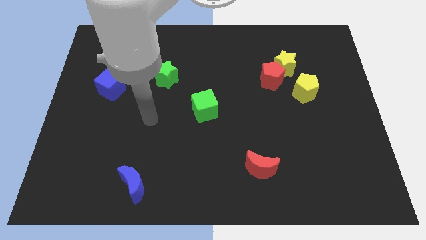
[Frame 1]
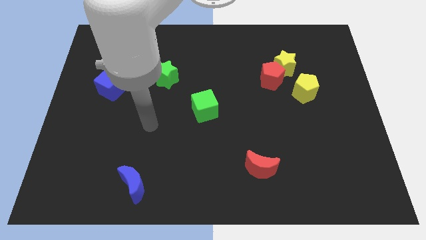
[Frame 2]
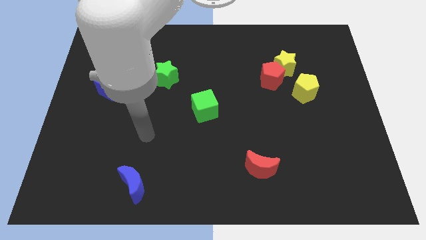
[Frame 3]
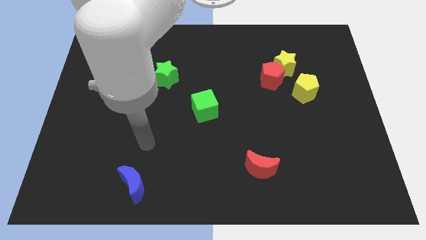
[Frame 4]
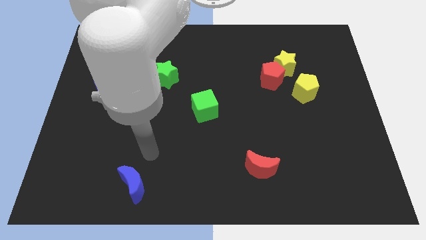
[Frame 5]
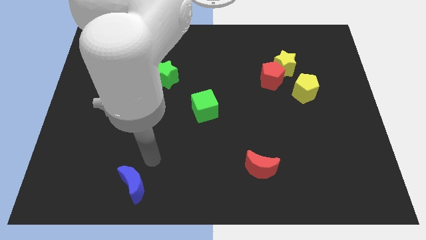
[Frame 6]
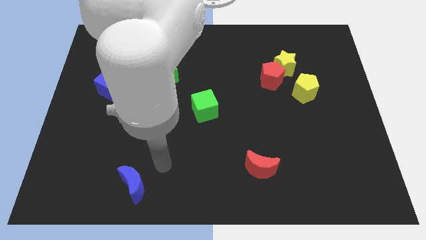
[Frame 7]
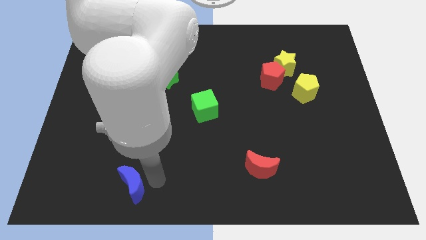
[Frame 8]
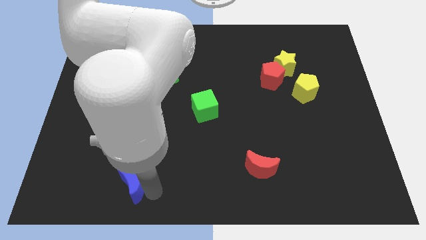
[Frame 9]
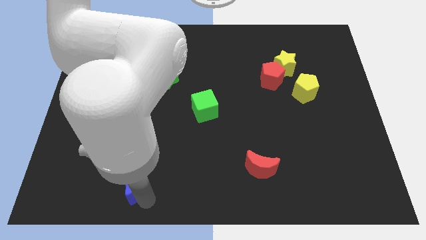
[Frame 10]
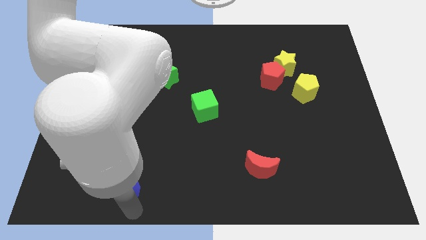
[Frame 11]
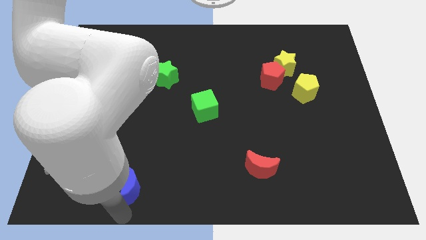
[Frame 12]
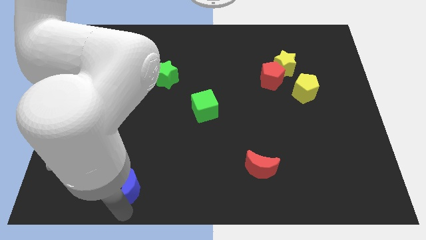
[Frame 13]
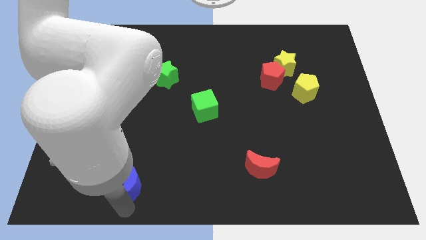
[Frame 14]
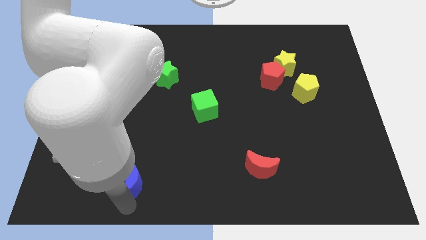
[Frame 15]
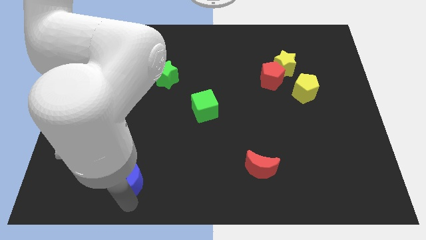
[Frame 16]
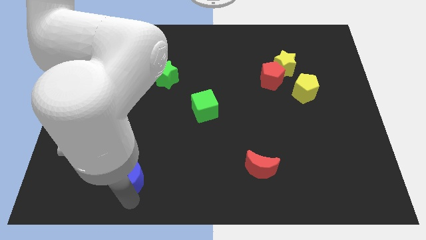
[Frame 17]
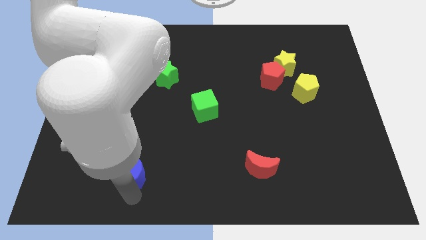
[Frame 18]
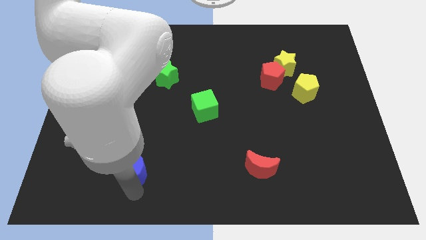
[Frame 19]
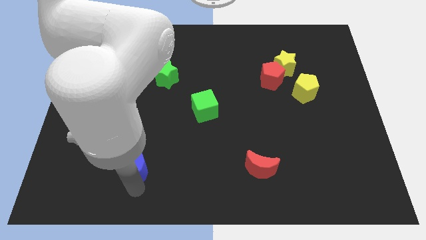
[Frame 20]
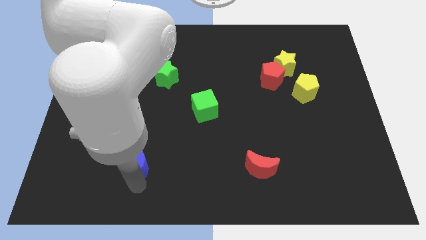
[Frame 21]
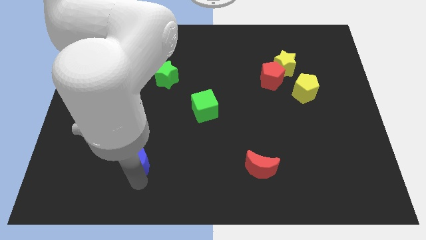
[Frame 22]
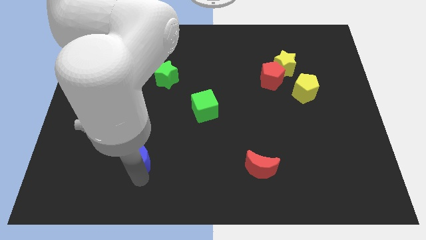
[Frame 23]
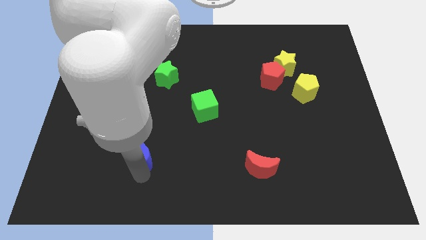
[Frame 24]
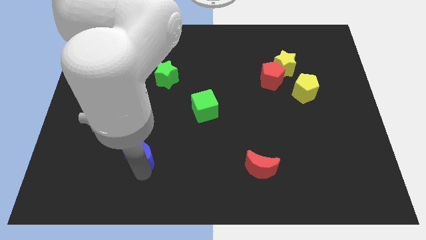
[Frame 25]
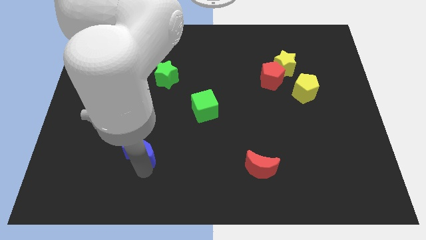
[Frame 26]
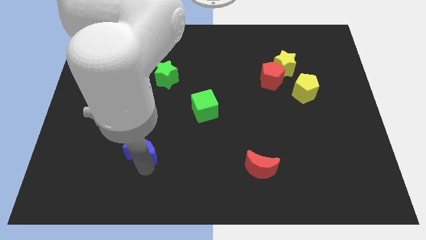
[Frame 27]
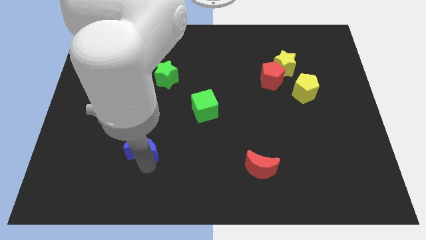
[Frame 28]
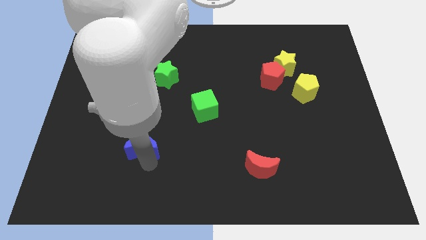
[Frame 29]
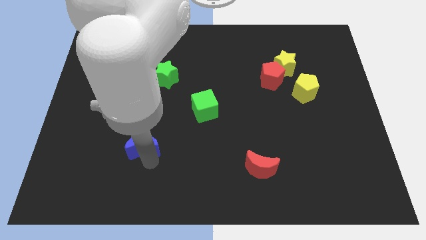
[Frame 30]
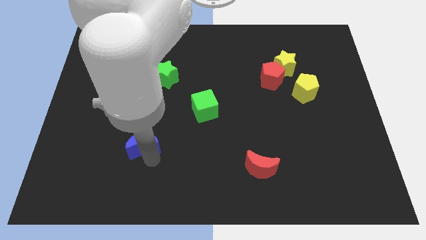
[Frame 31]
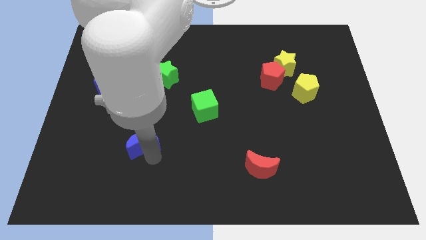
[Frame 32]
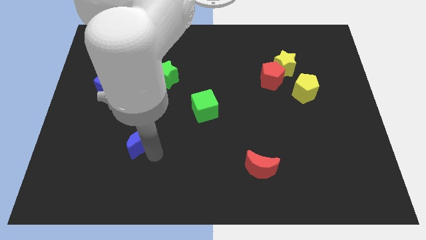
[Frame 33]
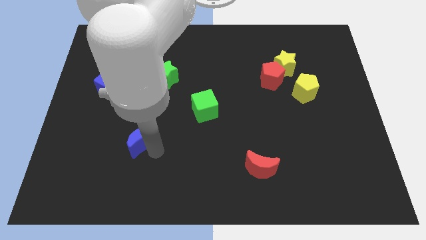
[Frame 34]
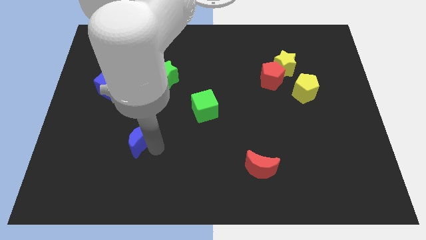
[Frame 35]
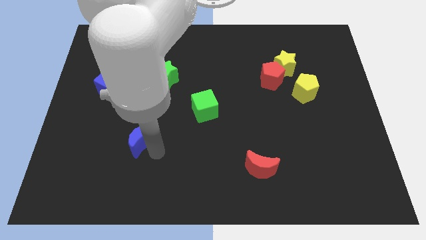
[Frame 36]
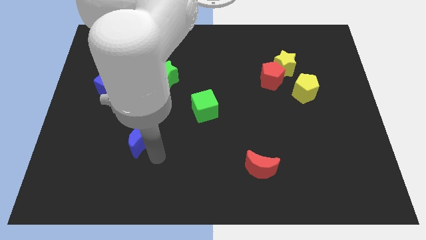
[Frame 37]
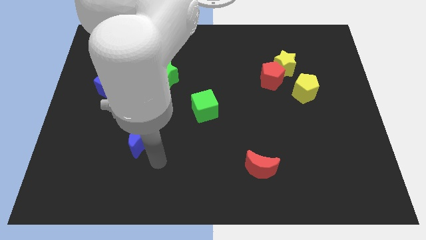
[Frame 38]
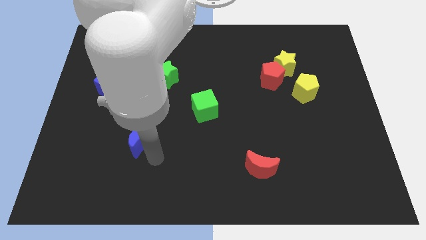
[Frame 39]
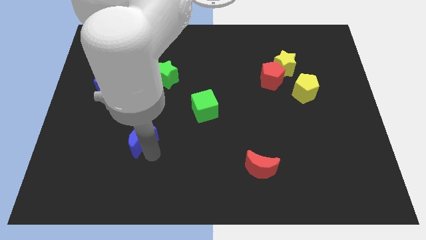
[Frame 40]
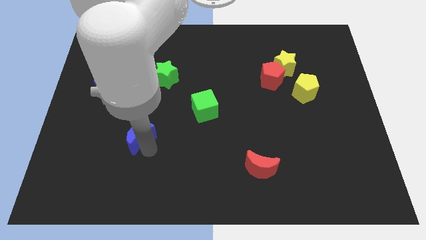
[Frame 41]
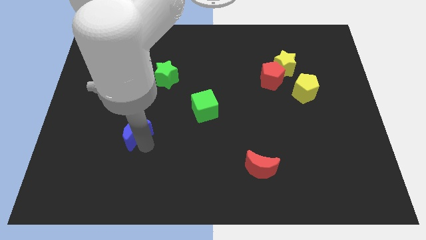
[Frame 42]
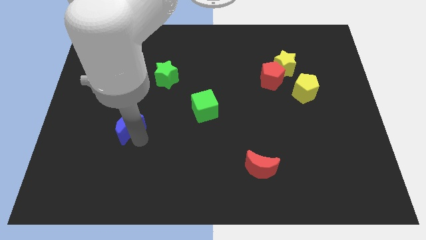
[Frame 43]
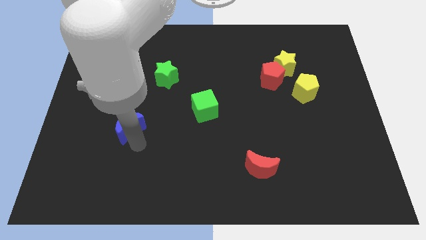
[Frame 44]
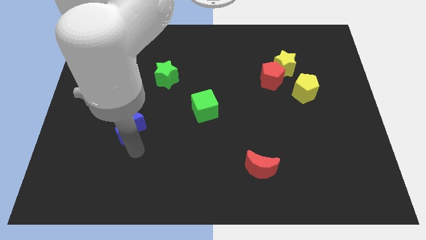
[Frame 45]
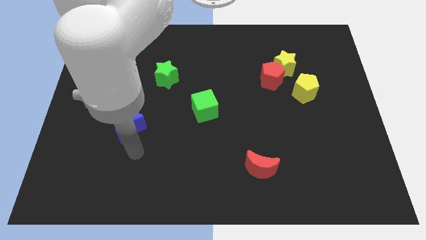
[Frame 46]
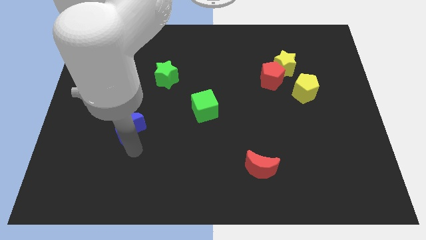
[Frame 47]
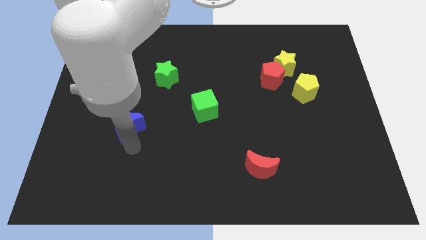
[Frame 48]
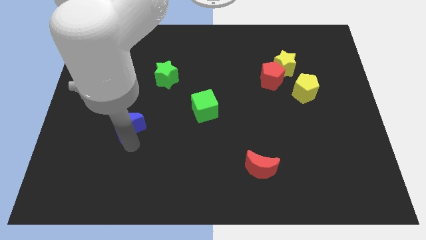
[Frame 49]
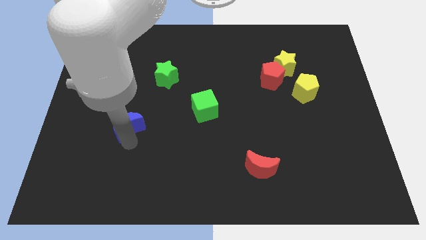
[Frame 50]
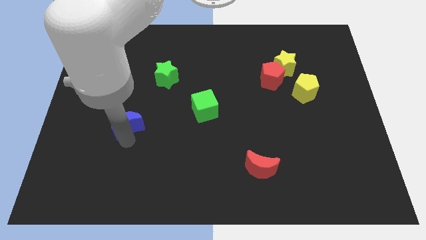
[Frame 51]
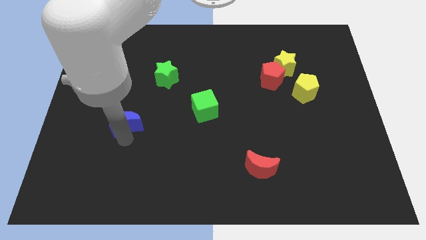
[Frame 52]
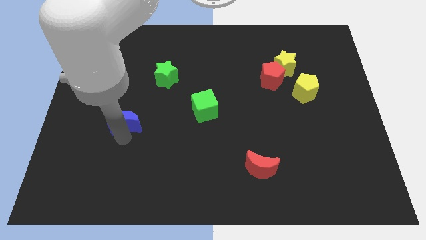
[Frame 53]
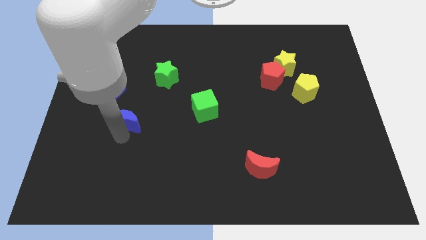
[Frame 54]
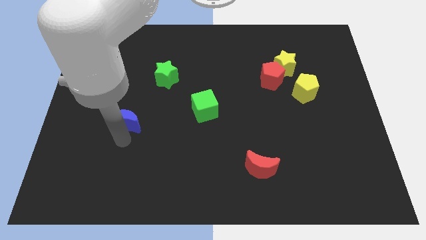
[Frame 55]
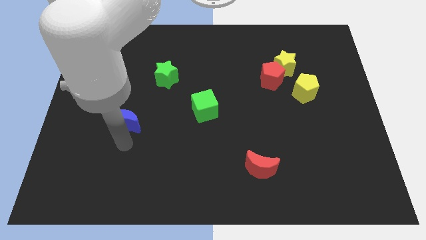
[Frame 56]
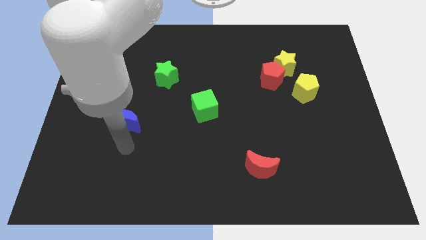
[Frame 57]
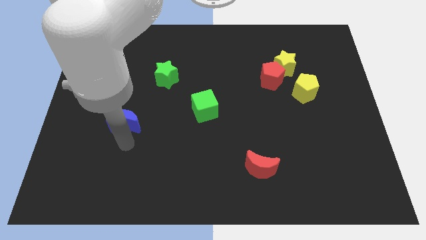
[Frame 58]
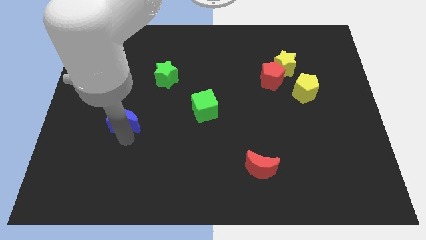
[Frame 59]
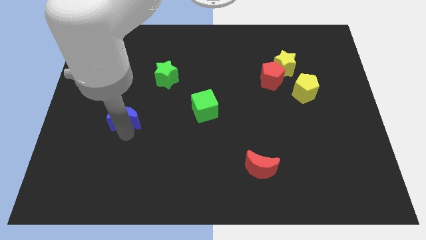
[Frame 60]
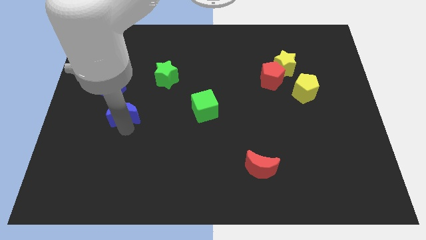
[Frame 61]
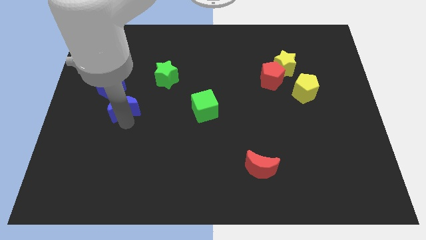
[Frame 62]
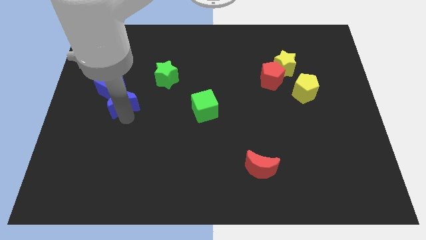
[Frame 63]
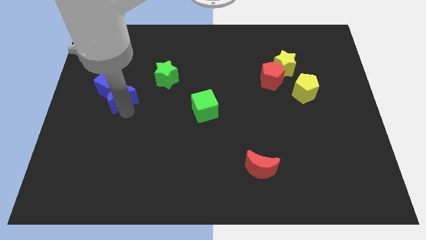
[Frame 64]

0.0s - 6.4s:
slide the blue moon to the blue cube

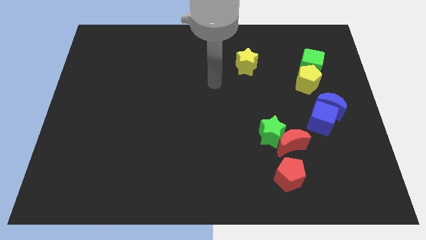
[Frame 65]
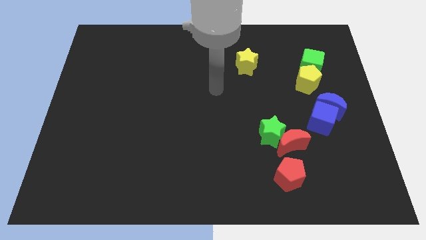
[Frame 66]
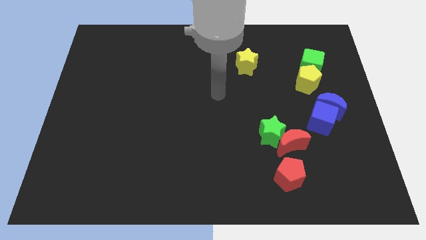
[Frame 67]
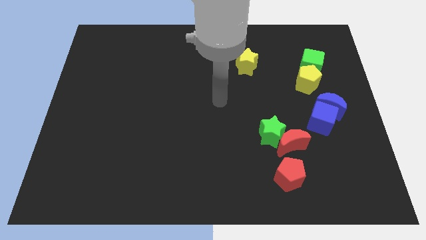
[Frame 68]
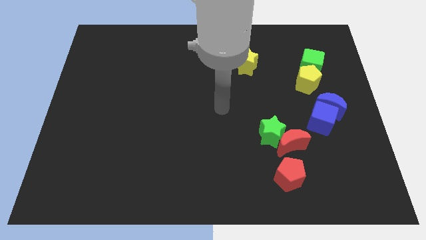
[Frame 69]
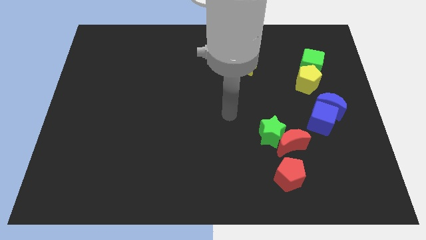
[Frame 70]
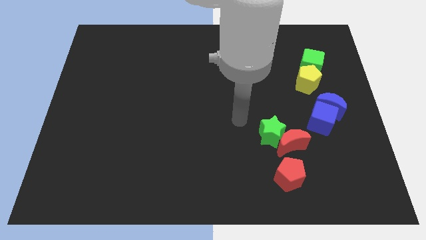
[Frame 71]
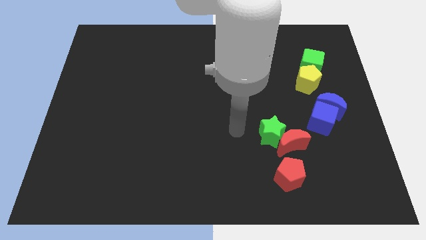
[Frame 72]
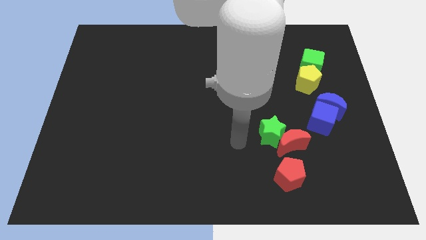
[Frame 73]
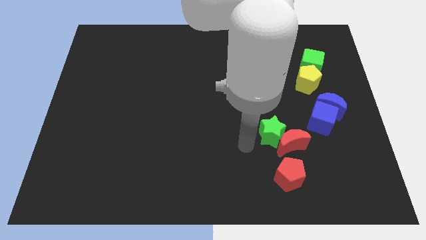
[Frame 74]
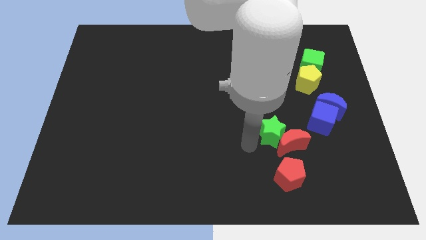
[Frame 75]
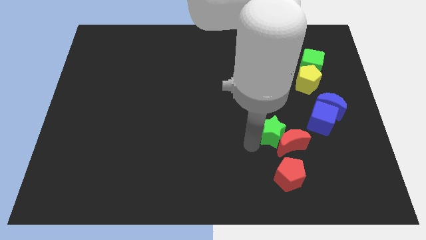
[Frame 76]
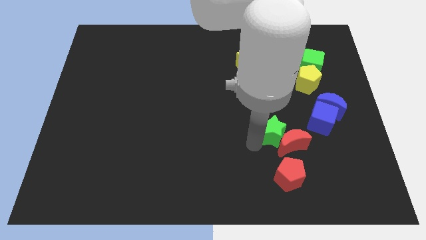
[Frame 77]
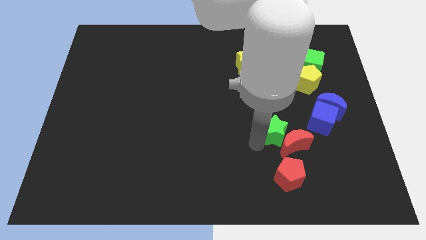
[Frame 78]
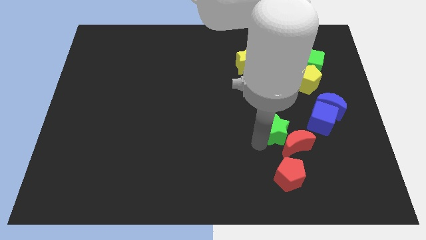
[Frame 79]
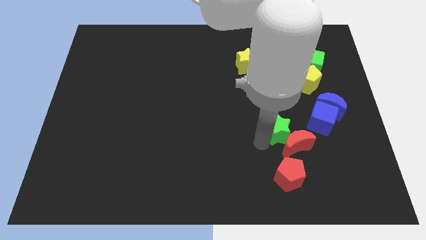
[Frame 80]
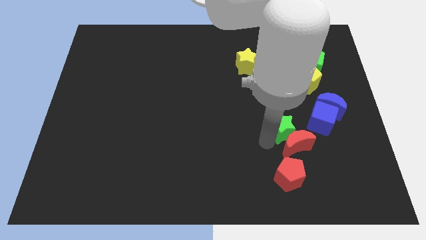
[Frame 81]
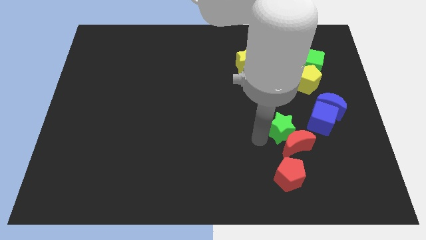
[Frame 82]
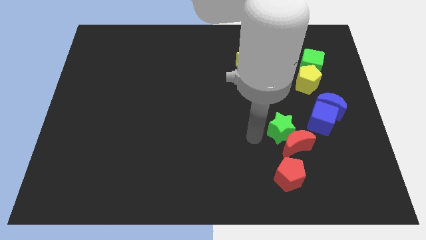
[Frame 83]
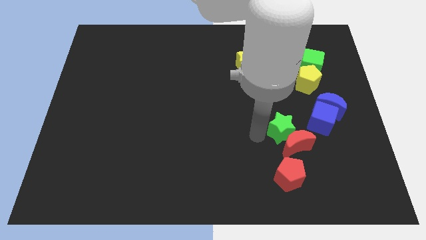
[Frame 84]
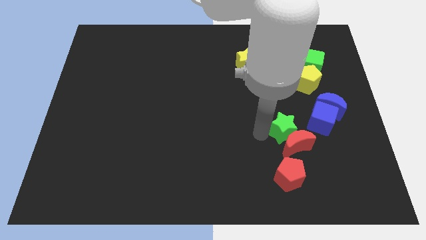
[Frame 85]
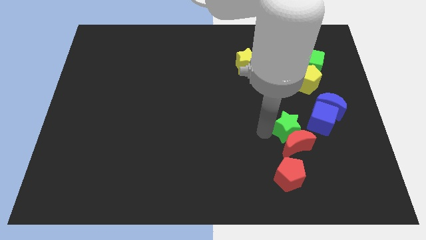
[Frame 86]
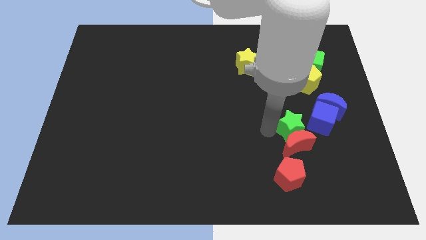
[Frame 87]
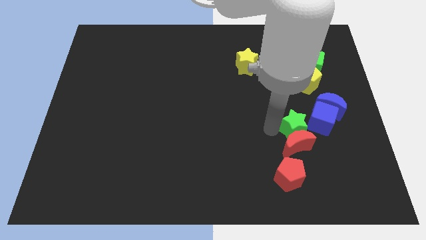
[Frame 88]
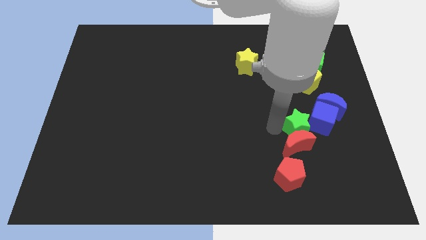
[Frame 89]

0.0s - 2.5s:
slide the green star next to the blue cube
